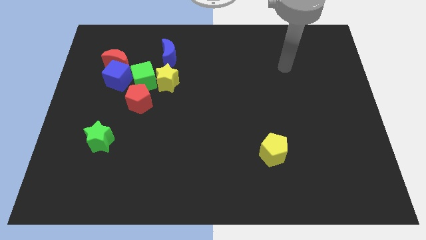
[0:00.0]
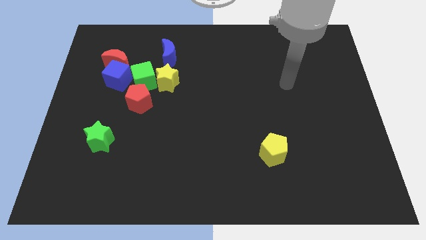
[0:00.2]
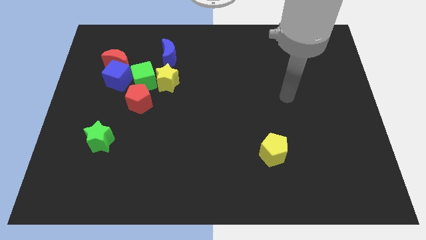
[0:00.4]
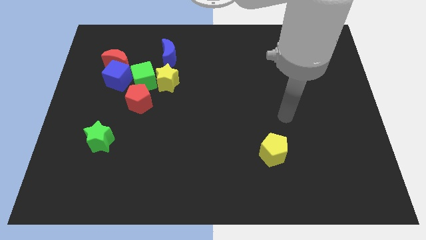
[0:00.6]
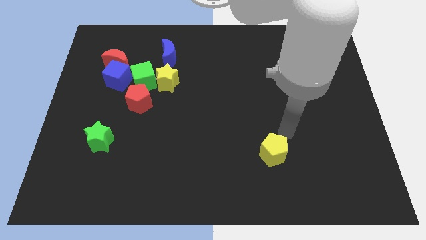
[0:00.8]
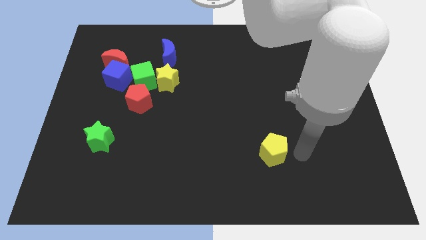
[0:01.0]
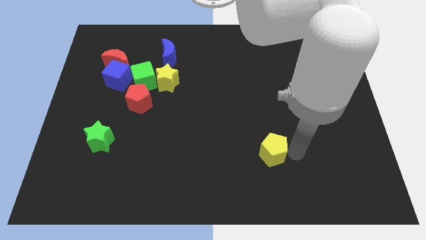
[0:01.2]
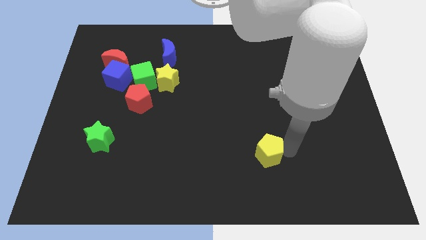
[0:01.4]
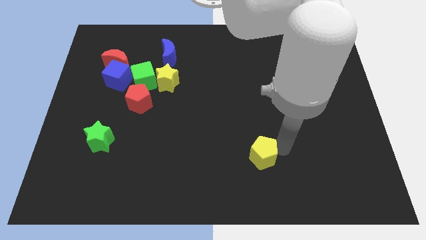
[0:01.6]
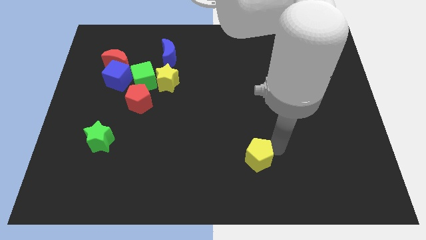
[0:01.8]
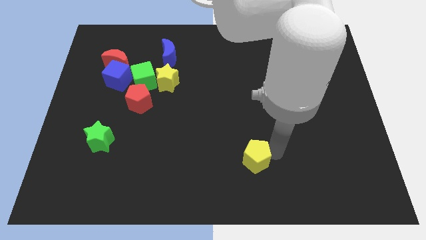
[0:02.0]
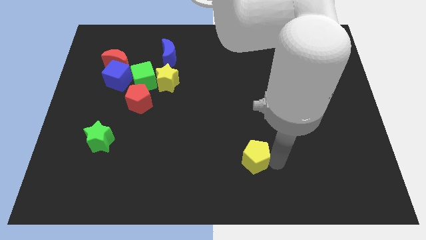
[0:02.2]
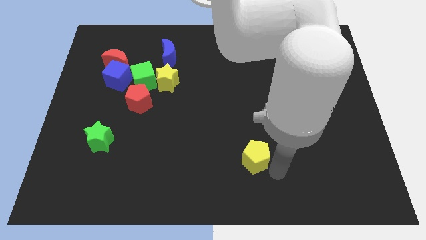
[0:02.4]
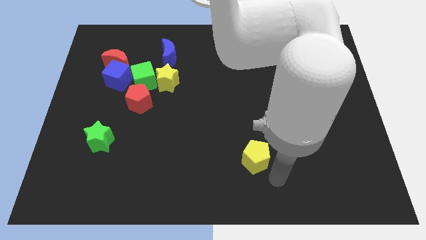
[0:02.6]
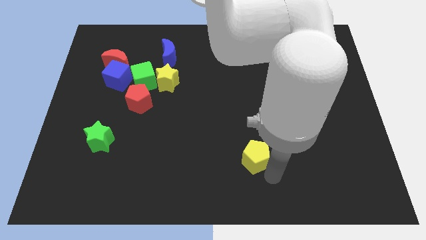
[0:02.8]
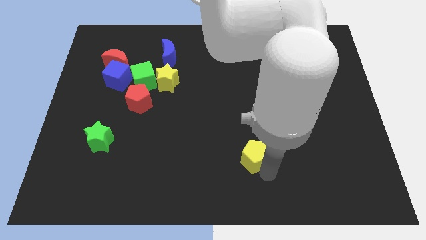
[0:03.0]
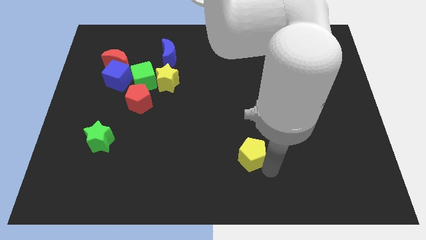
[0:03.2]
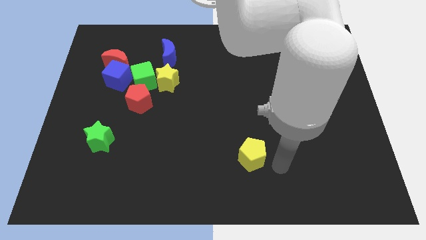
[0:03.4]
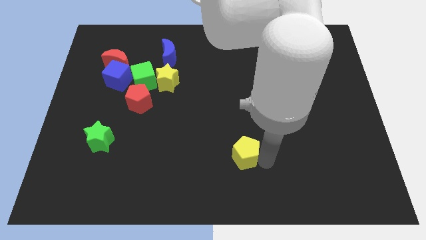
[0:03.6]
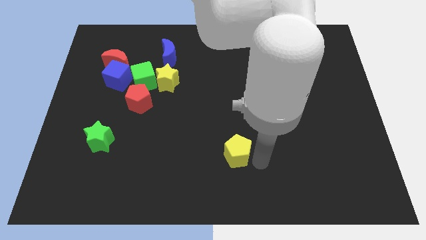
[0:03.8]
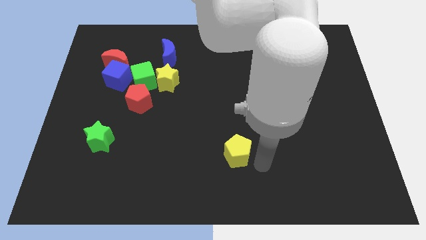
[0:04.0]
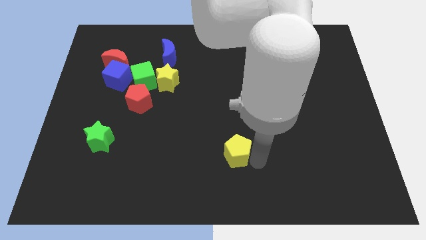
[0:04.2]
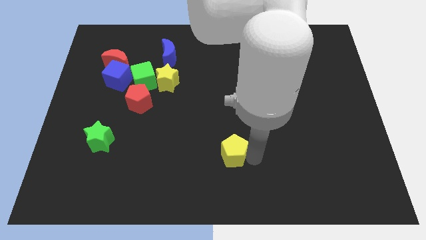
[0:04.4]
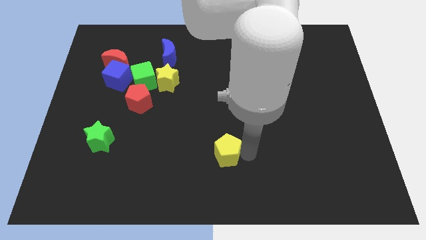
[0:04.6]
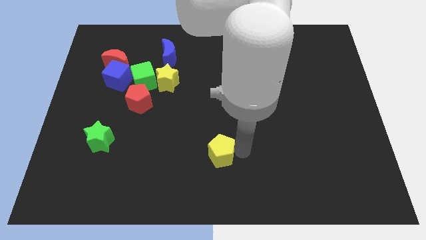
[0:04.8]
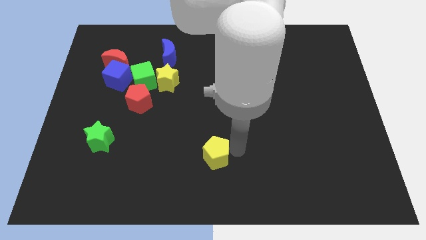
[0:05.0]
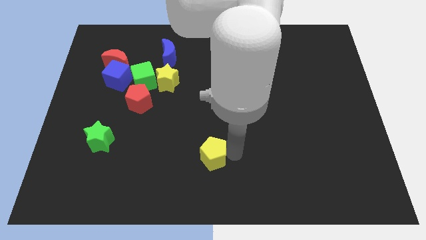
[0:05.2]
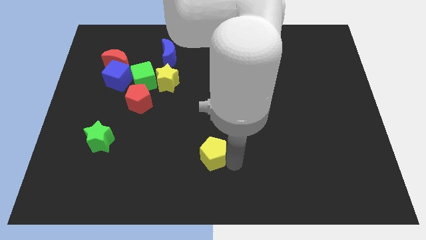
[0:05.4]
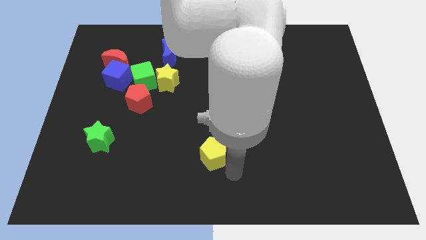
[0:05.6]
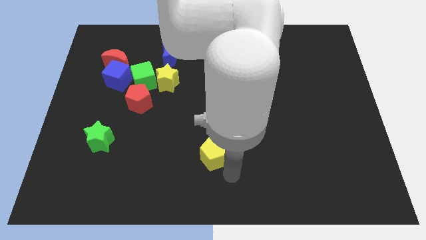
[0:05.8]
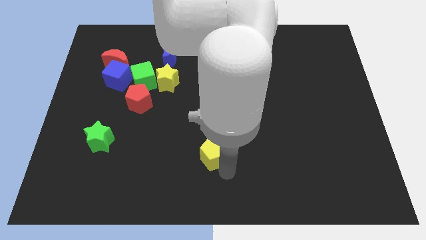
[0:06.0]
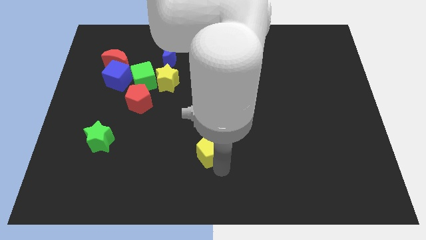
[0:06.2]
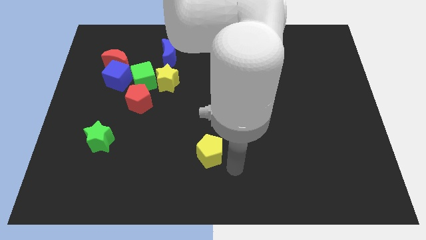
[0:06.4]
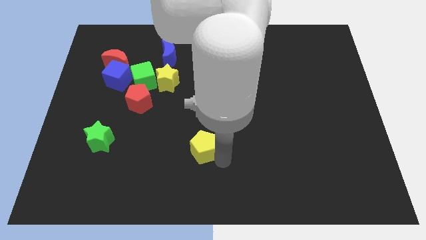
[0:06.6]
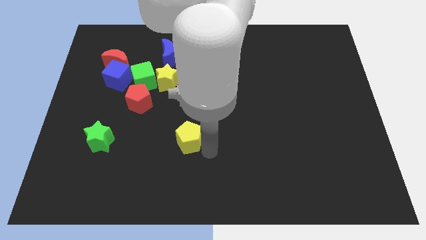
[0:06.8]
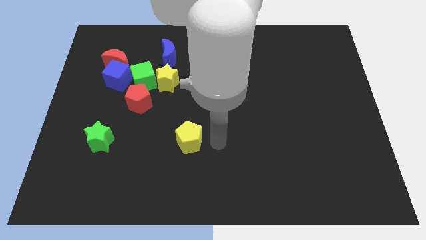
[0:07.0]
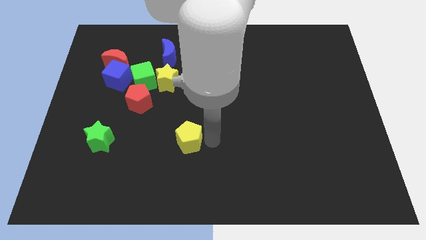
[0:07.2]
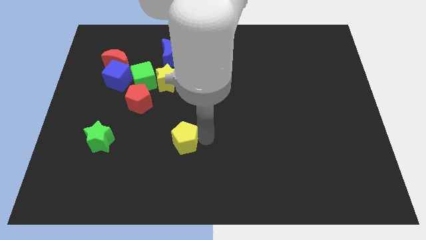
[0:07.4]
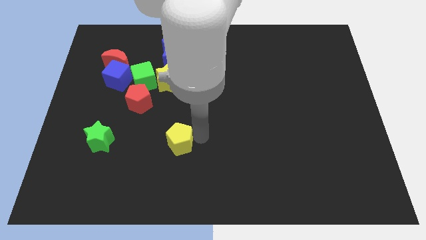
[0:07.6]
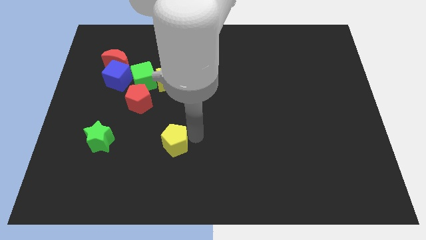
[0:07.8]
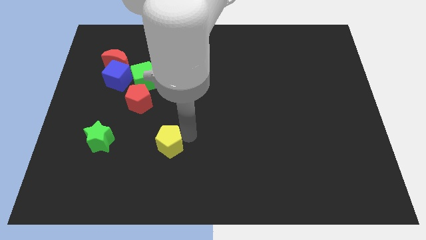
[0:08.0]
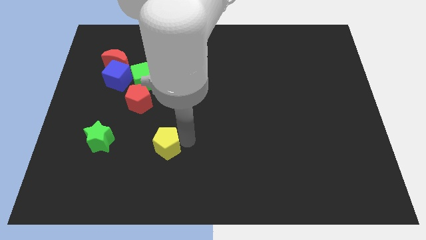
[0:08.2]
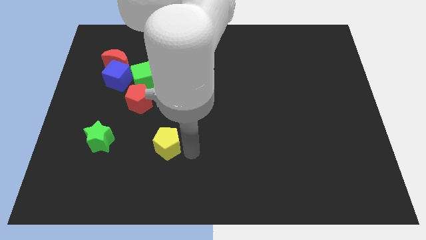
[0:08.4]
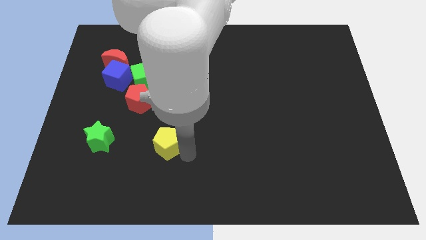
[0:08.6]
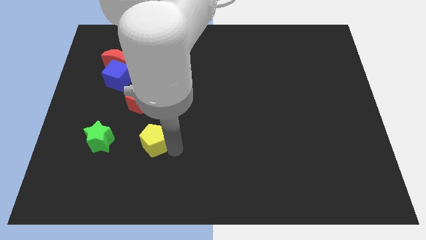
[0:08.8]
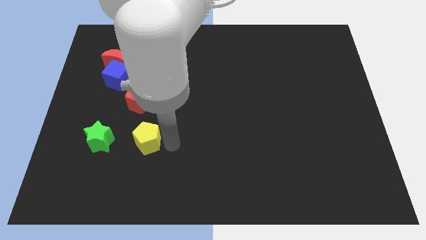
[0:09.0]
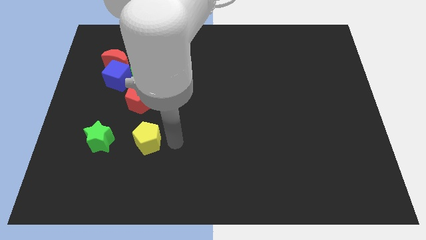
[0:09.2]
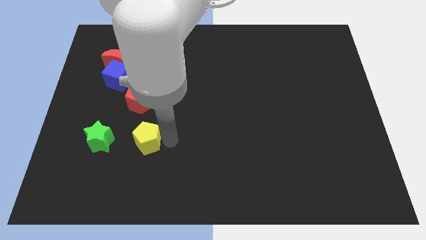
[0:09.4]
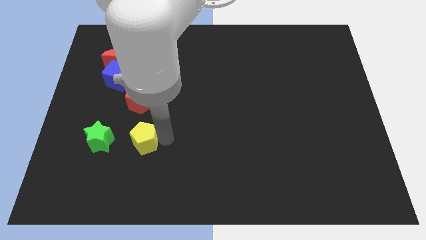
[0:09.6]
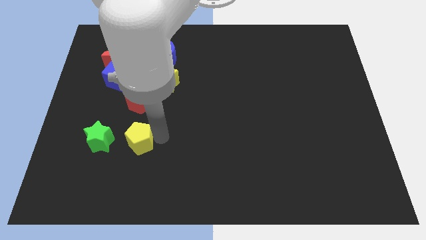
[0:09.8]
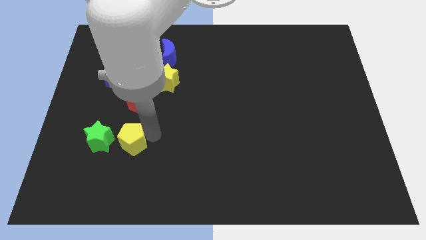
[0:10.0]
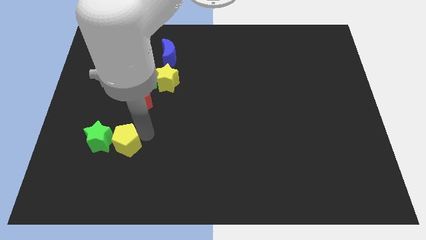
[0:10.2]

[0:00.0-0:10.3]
push the yellow pentagon next to the green star

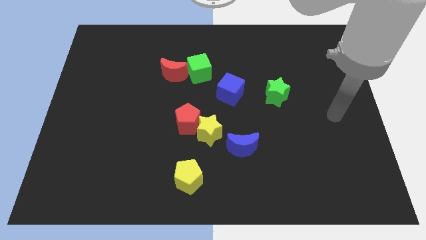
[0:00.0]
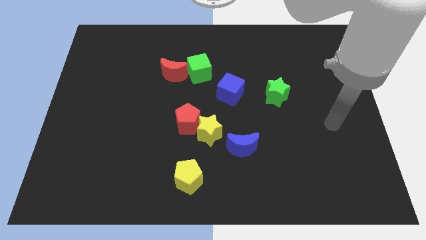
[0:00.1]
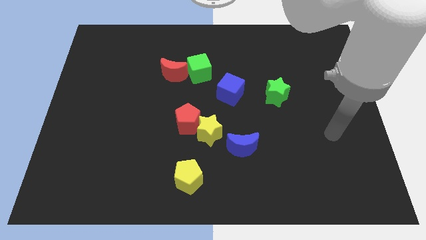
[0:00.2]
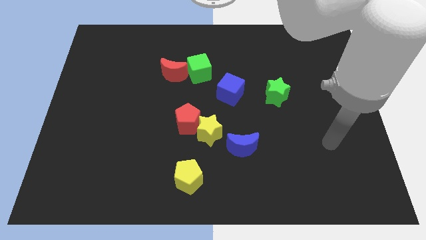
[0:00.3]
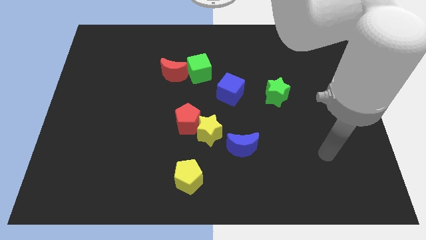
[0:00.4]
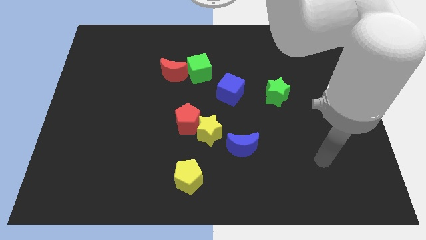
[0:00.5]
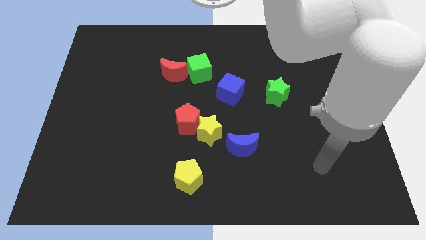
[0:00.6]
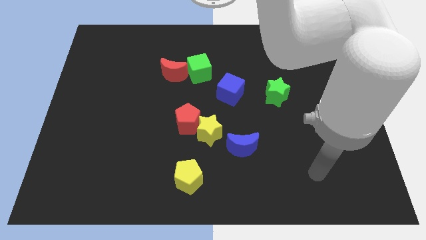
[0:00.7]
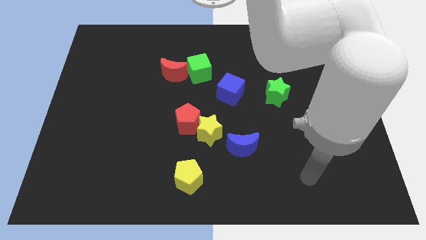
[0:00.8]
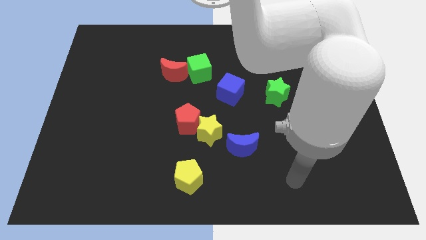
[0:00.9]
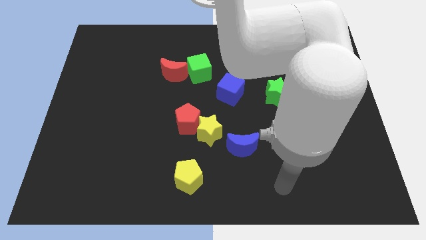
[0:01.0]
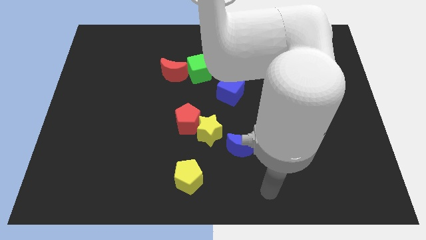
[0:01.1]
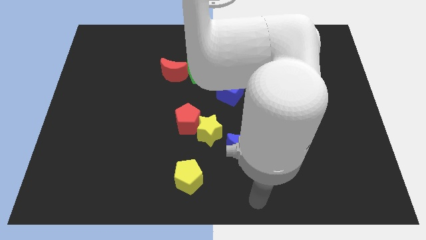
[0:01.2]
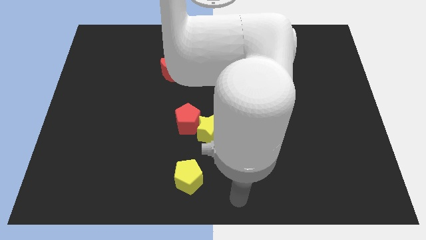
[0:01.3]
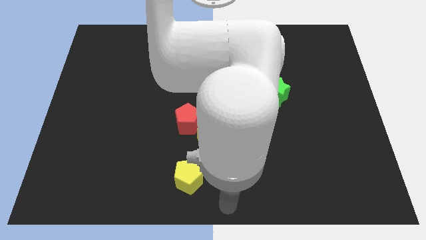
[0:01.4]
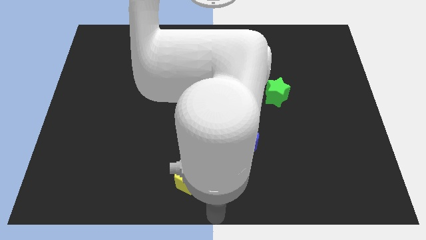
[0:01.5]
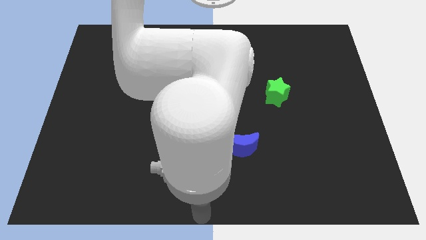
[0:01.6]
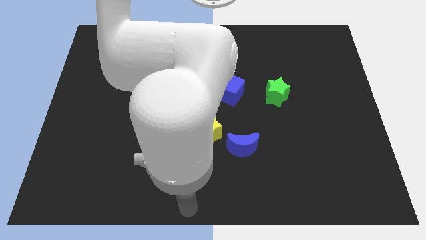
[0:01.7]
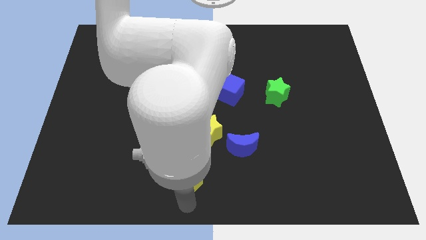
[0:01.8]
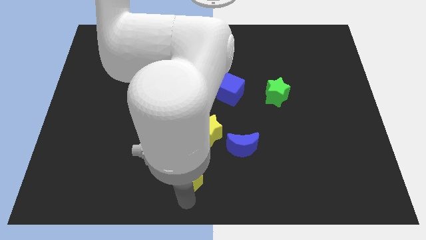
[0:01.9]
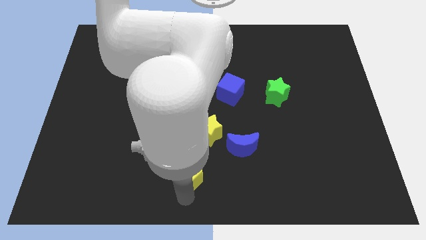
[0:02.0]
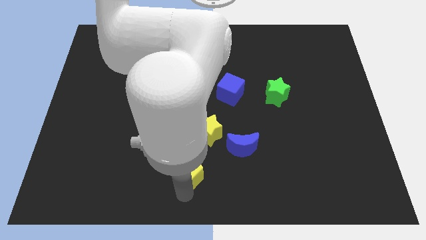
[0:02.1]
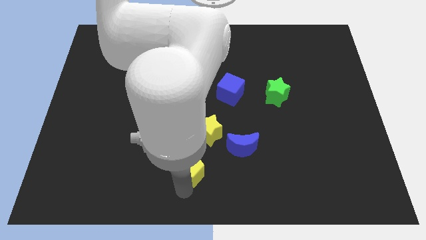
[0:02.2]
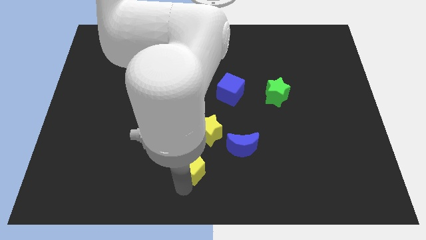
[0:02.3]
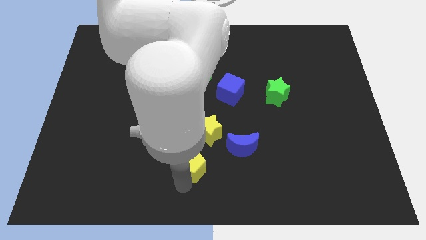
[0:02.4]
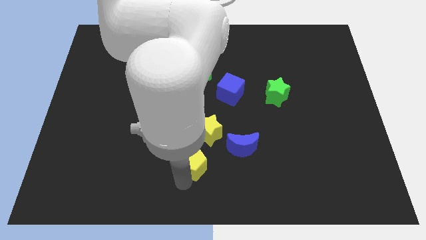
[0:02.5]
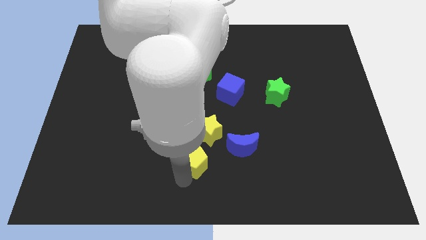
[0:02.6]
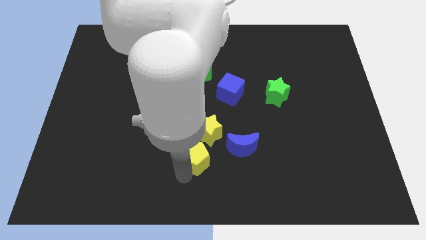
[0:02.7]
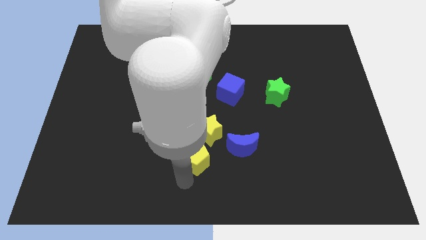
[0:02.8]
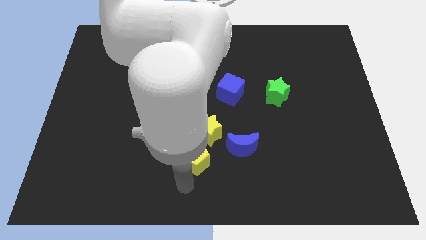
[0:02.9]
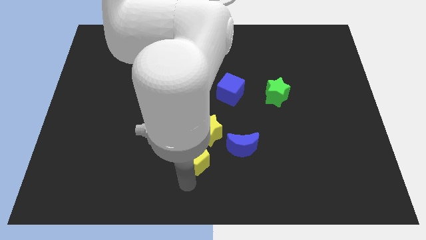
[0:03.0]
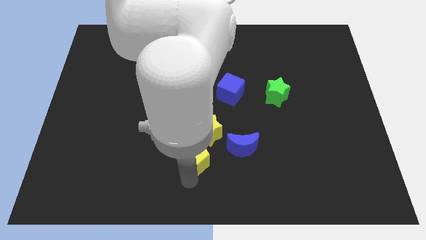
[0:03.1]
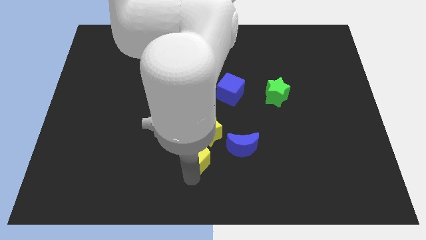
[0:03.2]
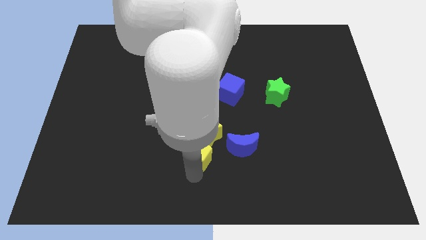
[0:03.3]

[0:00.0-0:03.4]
move the yellow pentagon next to the yellow star
